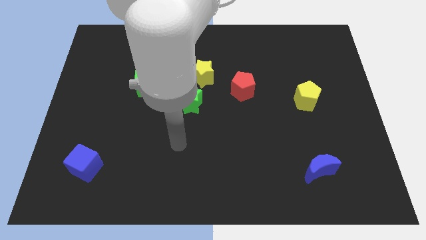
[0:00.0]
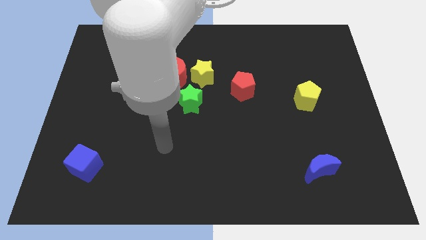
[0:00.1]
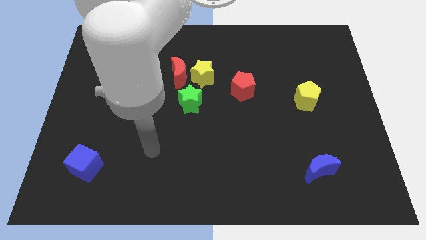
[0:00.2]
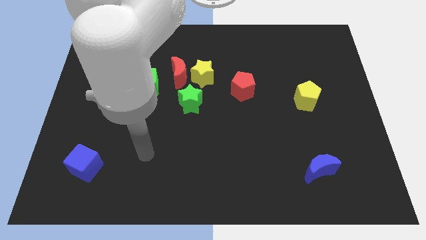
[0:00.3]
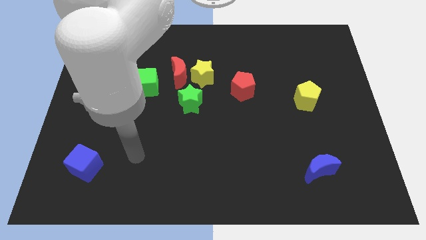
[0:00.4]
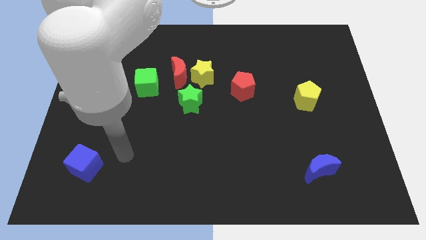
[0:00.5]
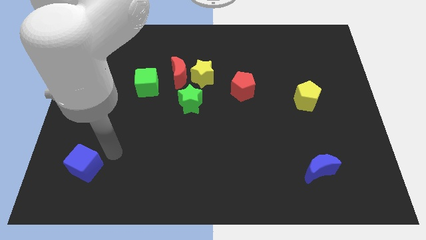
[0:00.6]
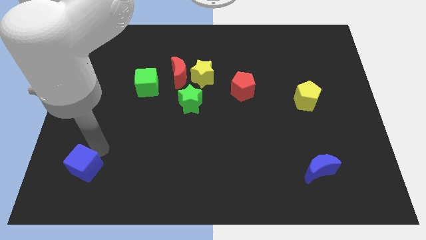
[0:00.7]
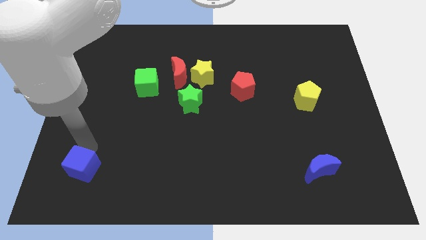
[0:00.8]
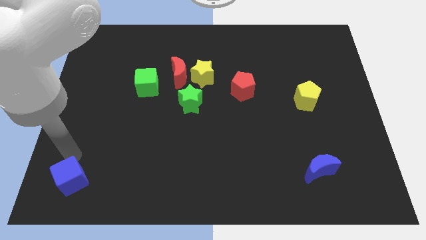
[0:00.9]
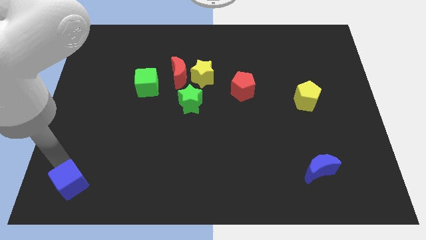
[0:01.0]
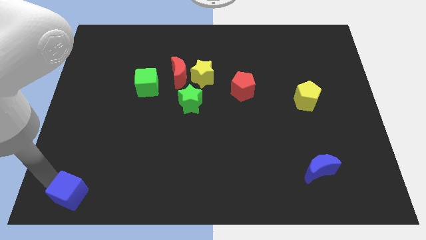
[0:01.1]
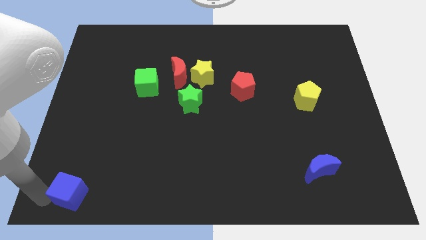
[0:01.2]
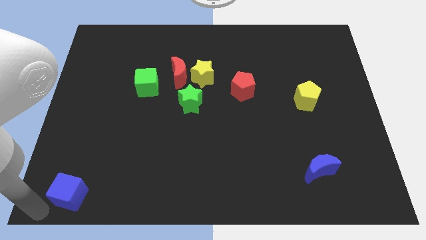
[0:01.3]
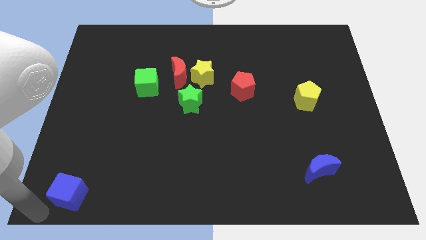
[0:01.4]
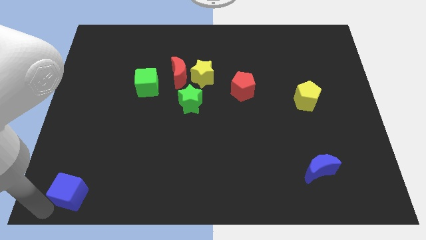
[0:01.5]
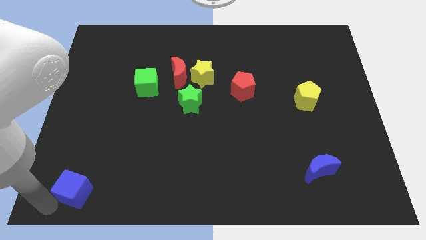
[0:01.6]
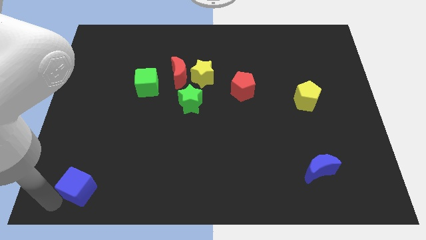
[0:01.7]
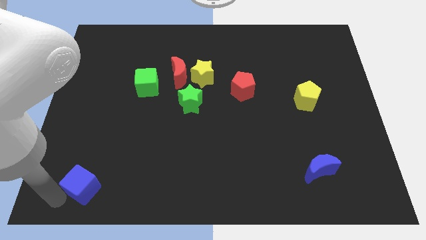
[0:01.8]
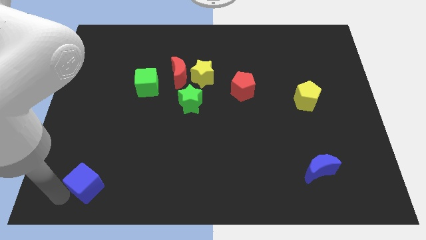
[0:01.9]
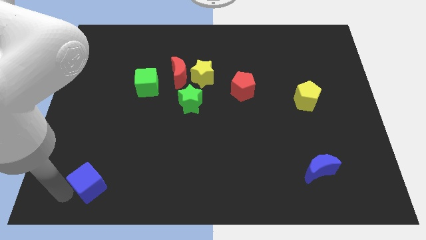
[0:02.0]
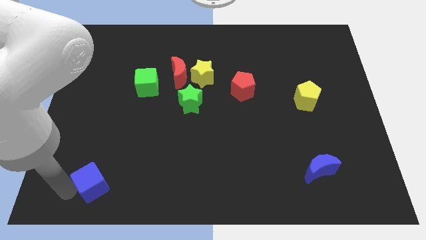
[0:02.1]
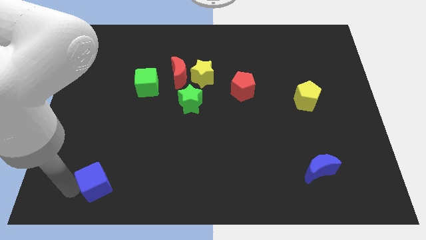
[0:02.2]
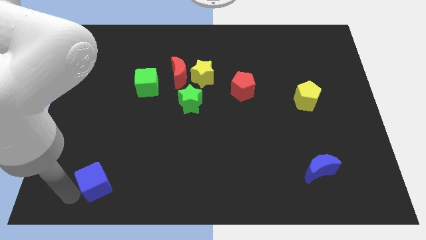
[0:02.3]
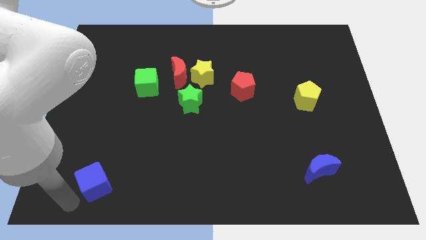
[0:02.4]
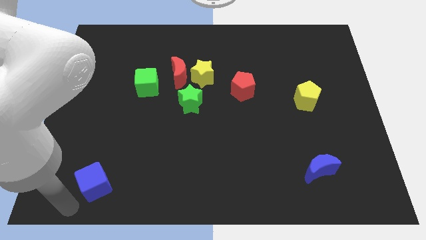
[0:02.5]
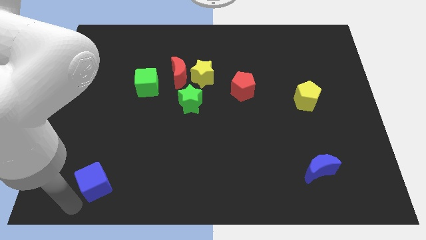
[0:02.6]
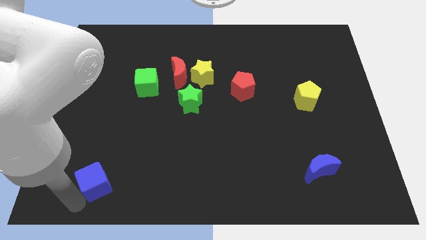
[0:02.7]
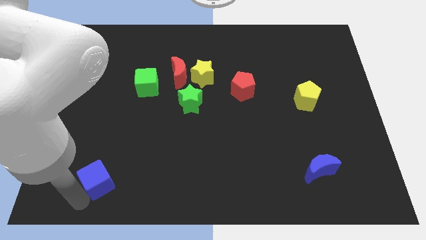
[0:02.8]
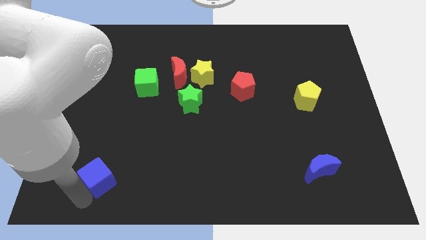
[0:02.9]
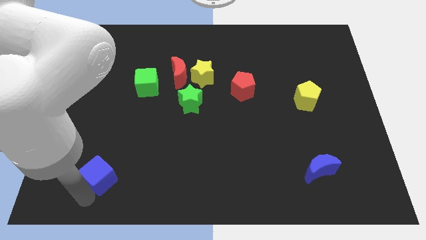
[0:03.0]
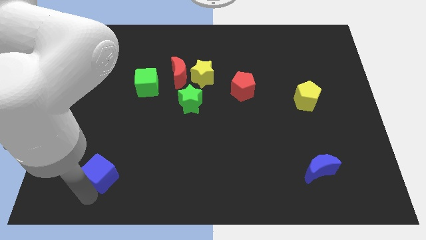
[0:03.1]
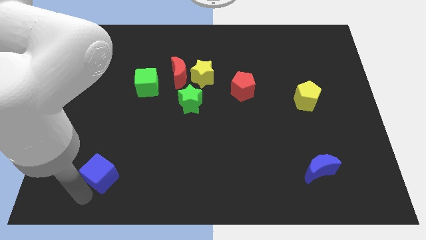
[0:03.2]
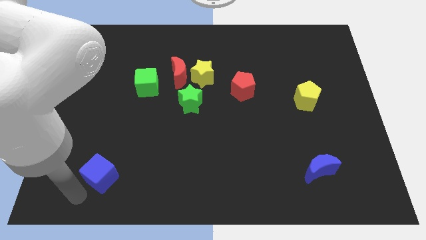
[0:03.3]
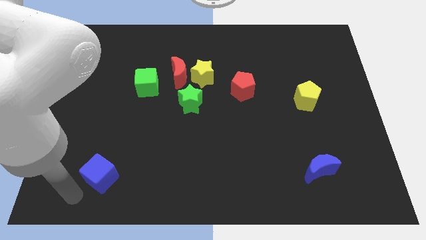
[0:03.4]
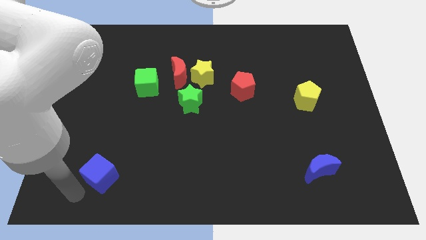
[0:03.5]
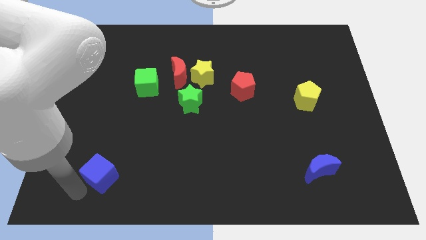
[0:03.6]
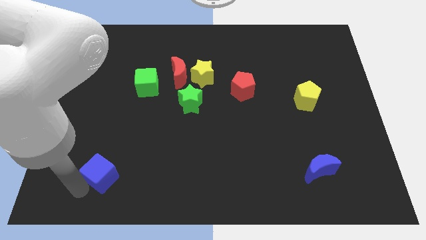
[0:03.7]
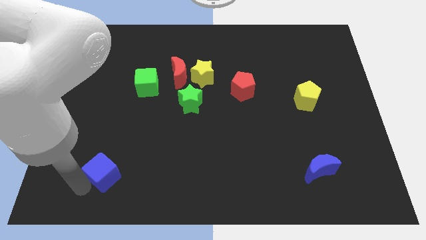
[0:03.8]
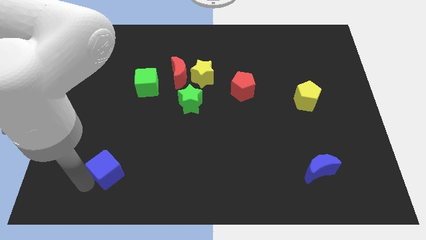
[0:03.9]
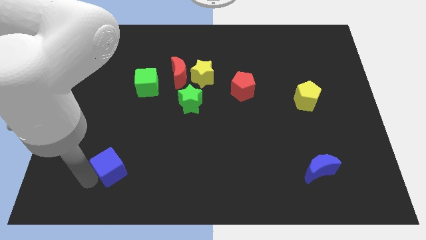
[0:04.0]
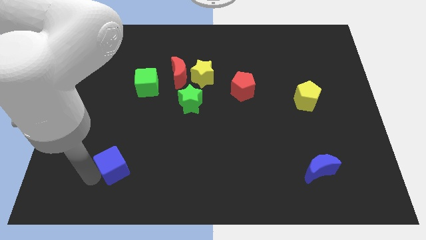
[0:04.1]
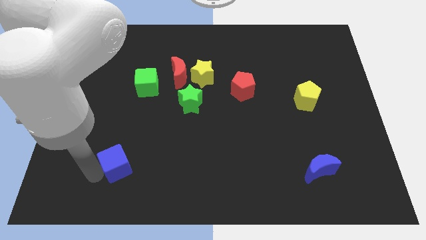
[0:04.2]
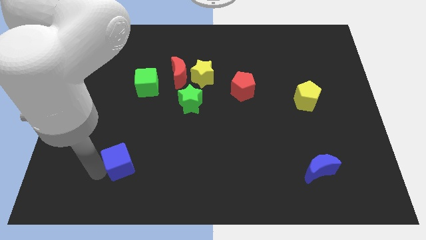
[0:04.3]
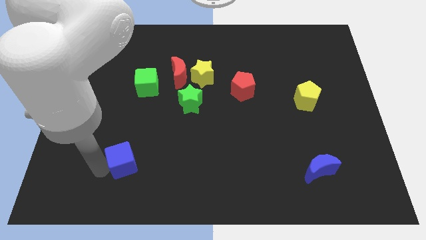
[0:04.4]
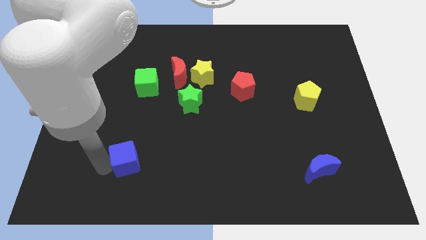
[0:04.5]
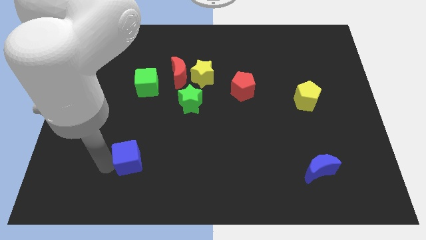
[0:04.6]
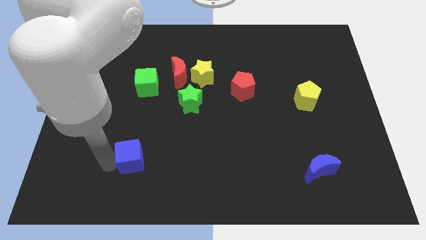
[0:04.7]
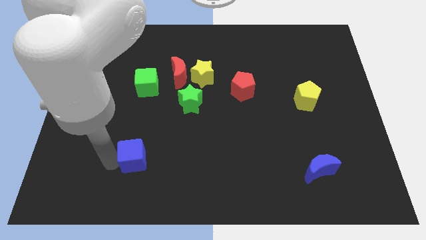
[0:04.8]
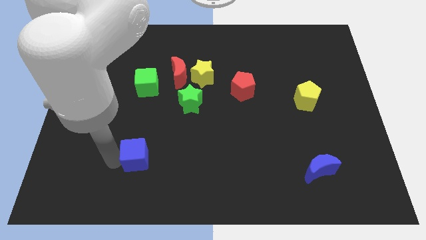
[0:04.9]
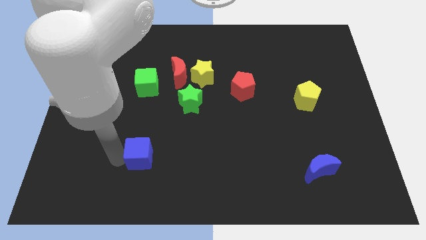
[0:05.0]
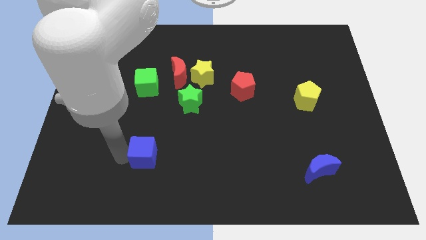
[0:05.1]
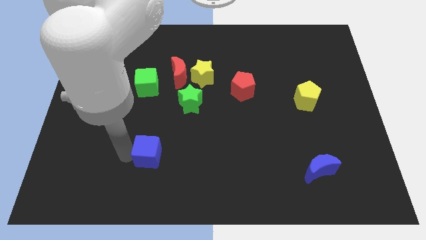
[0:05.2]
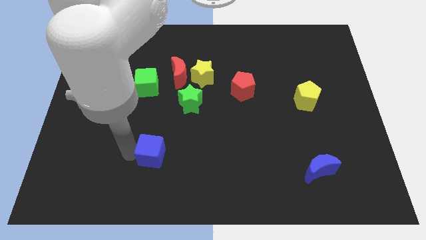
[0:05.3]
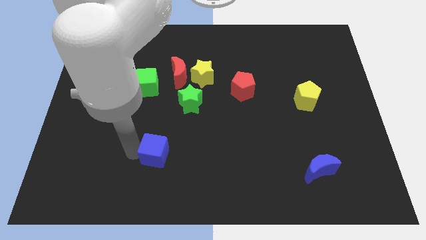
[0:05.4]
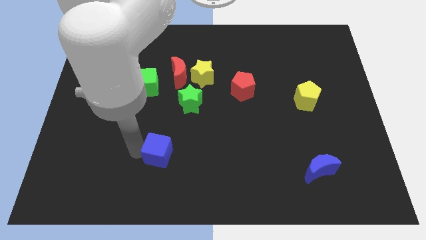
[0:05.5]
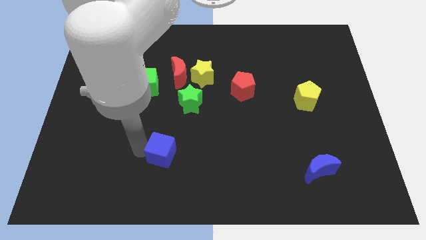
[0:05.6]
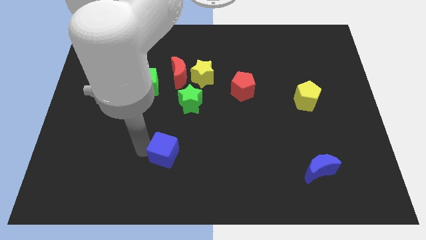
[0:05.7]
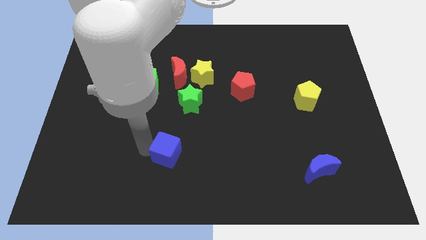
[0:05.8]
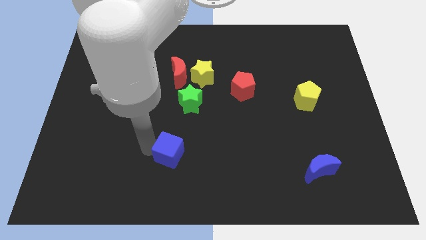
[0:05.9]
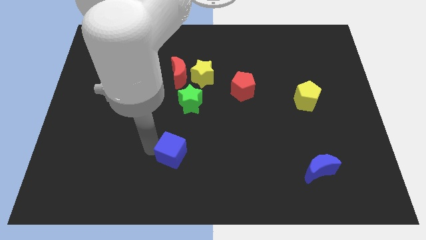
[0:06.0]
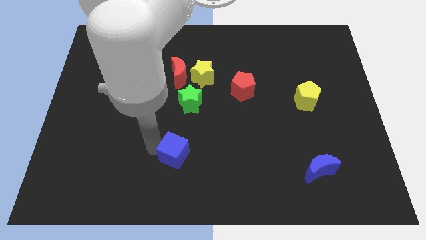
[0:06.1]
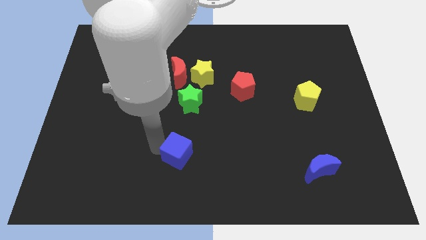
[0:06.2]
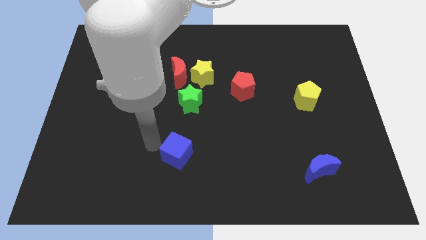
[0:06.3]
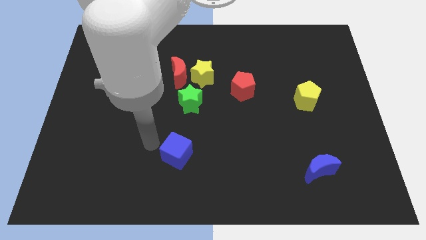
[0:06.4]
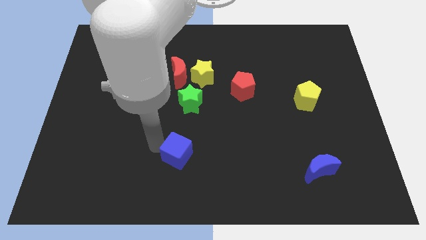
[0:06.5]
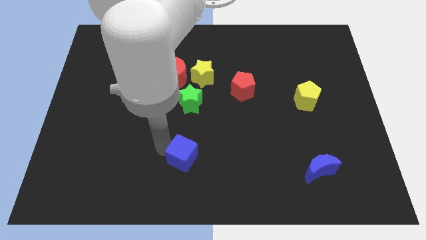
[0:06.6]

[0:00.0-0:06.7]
move the blue cube to the right

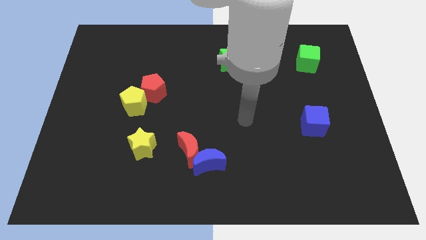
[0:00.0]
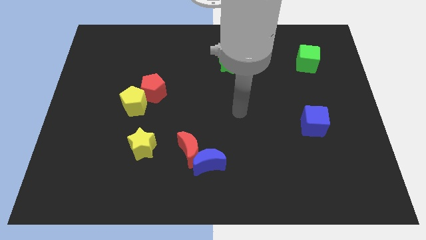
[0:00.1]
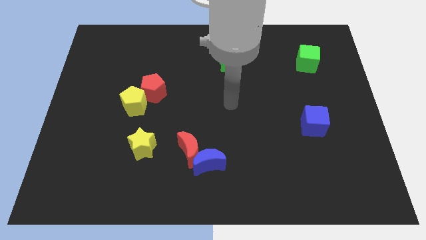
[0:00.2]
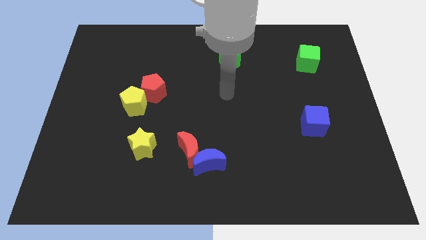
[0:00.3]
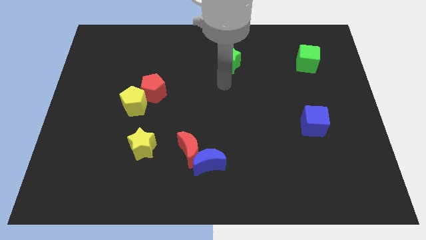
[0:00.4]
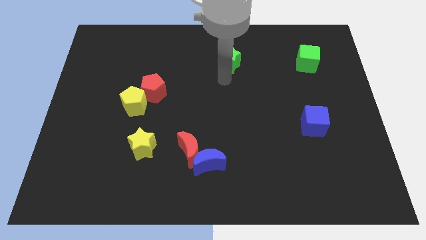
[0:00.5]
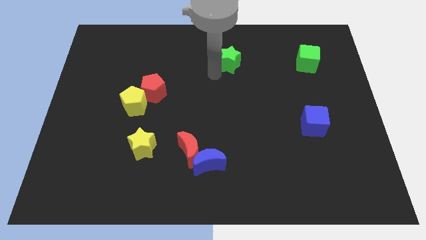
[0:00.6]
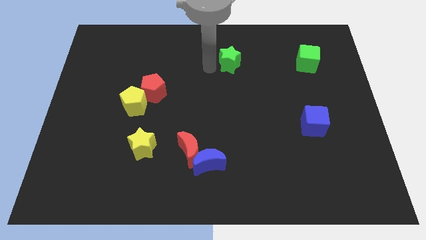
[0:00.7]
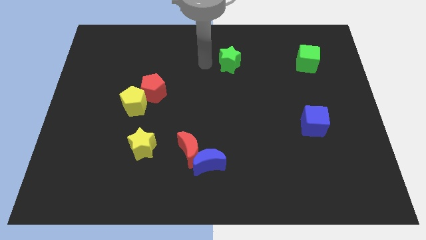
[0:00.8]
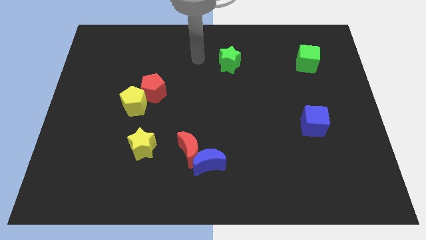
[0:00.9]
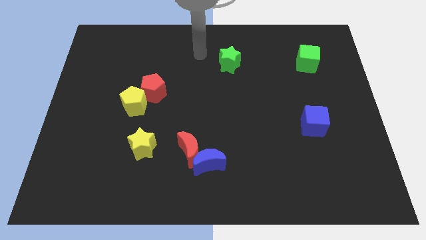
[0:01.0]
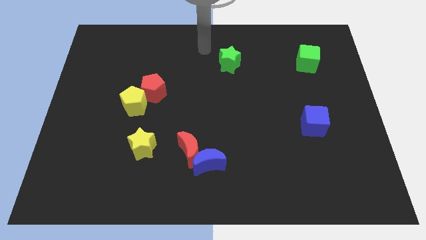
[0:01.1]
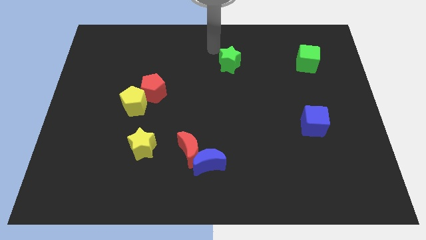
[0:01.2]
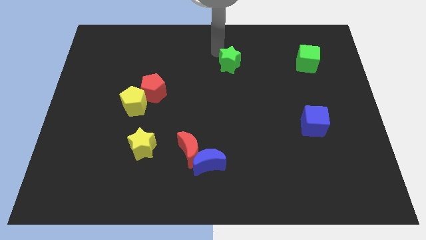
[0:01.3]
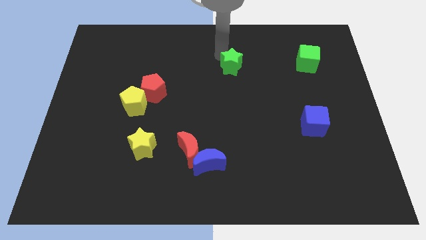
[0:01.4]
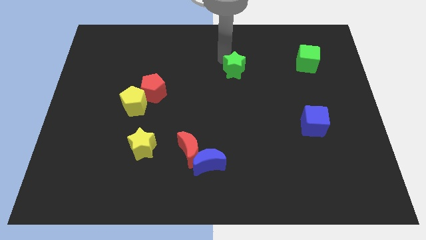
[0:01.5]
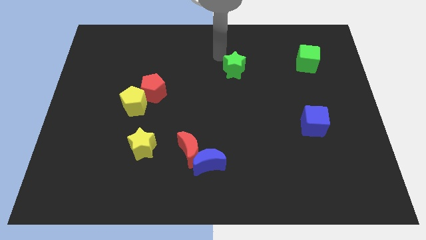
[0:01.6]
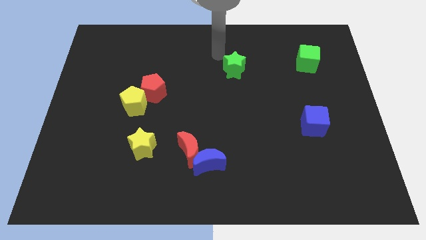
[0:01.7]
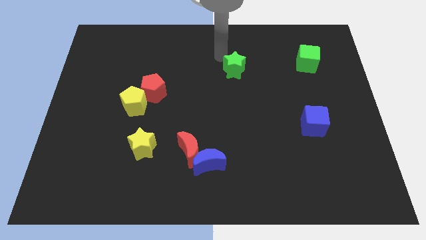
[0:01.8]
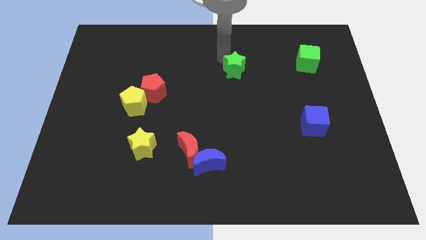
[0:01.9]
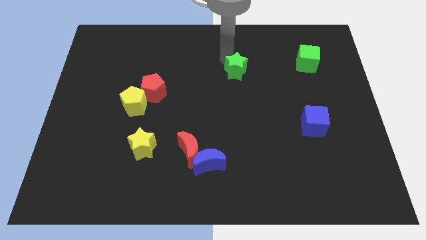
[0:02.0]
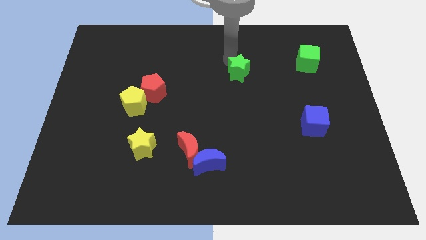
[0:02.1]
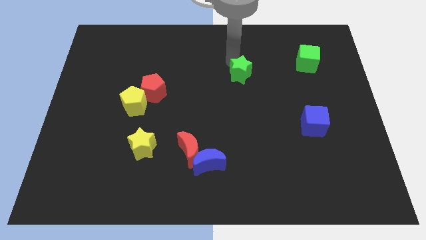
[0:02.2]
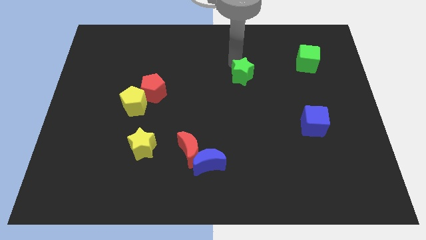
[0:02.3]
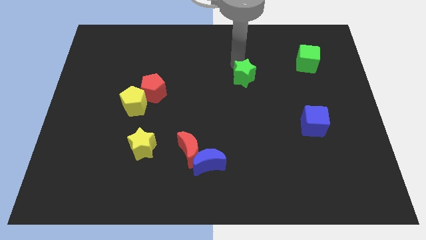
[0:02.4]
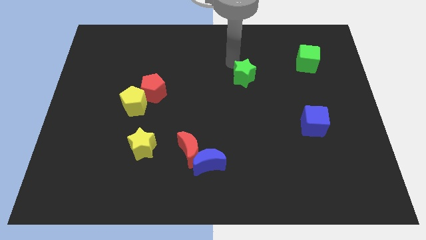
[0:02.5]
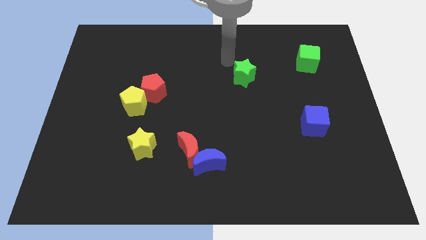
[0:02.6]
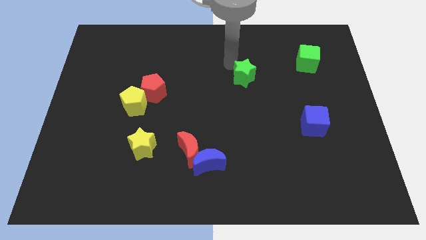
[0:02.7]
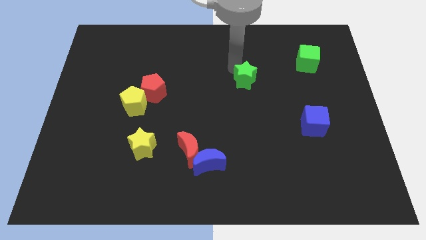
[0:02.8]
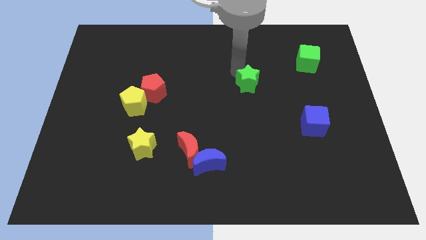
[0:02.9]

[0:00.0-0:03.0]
slide the green star downwards and to the right diagonally slightly
